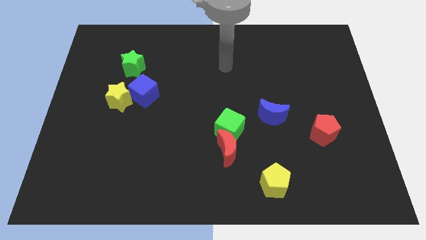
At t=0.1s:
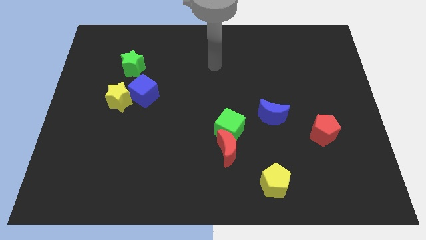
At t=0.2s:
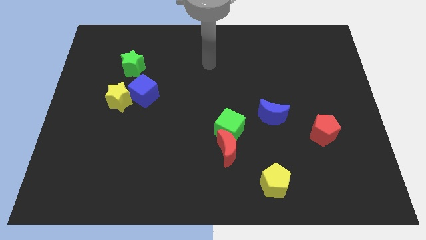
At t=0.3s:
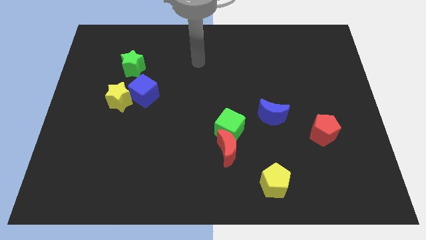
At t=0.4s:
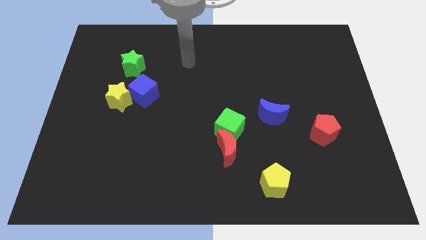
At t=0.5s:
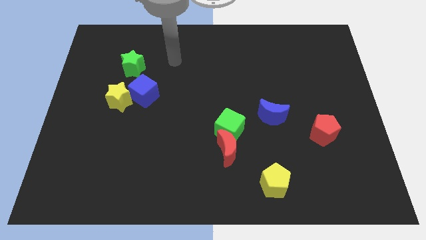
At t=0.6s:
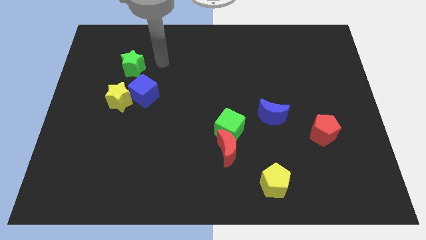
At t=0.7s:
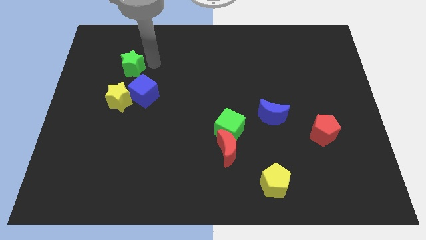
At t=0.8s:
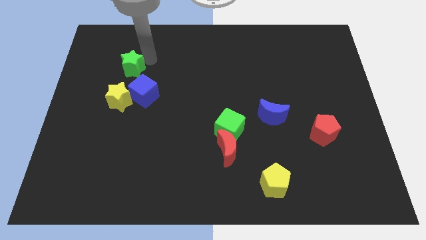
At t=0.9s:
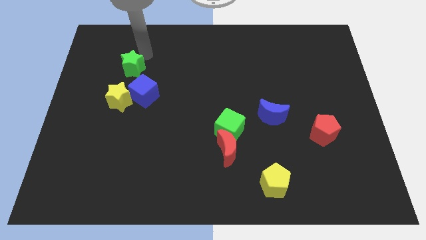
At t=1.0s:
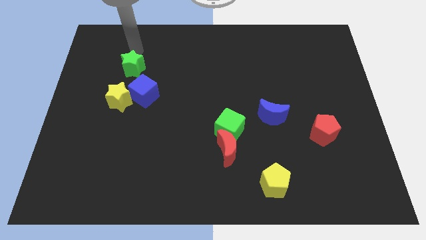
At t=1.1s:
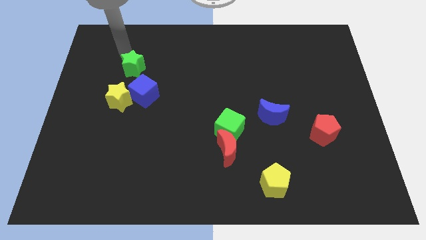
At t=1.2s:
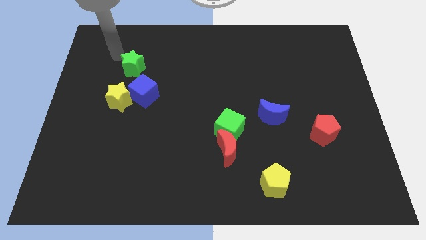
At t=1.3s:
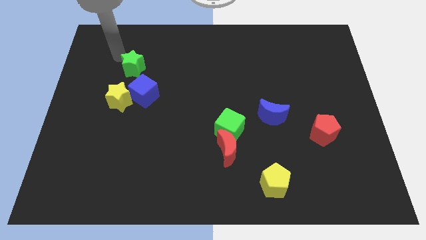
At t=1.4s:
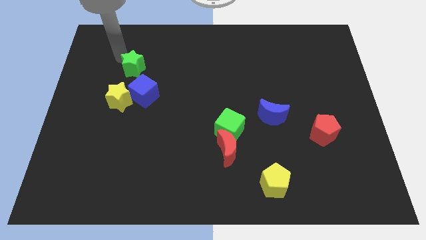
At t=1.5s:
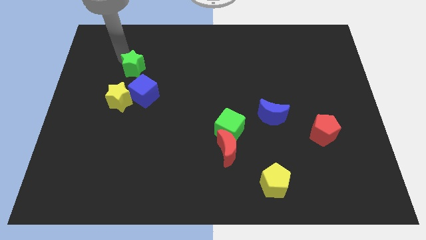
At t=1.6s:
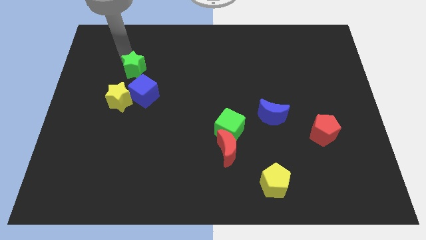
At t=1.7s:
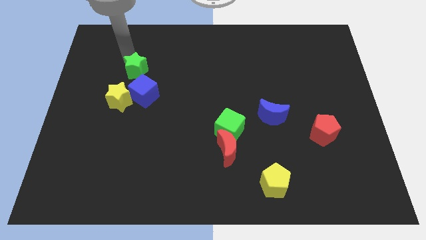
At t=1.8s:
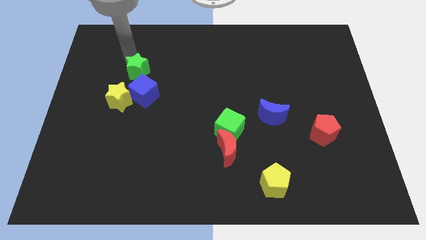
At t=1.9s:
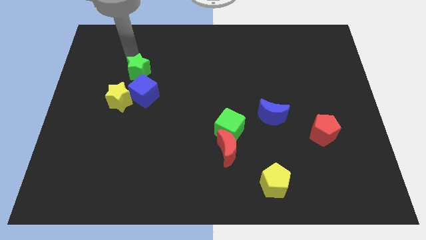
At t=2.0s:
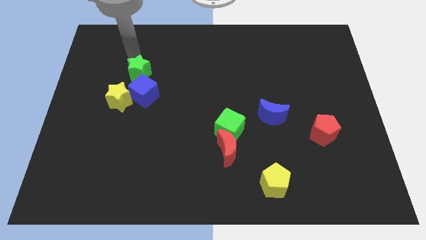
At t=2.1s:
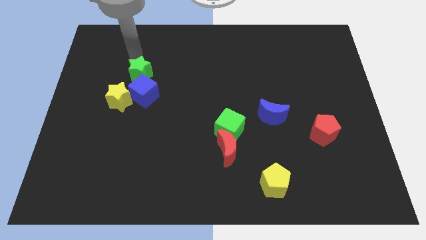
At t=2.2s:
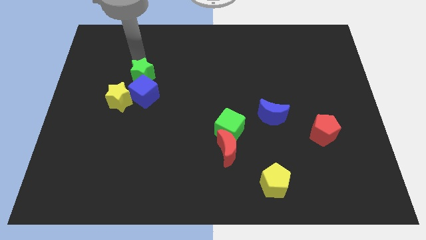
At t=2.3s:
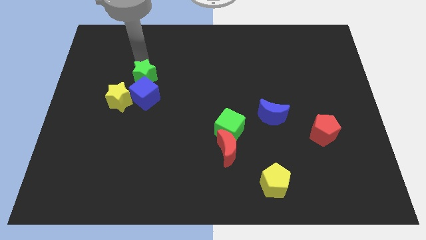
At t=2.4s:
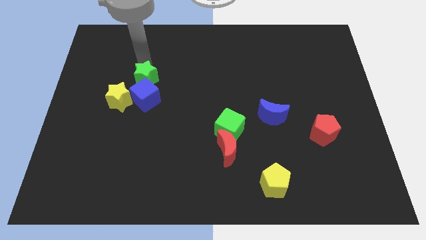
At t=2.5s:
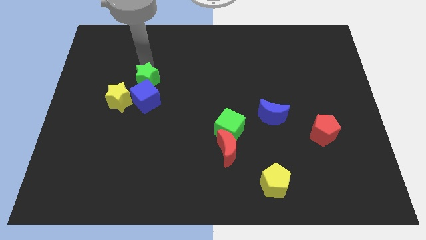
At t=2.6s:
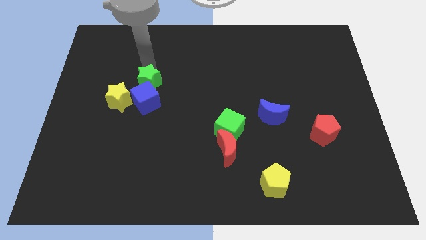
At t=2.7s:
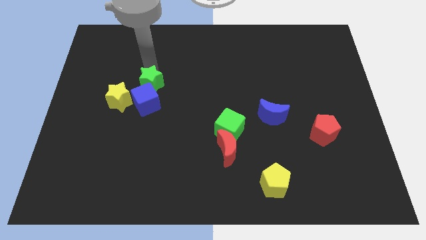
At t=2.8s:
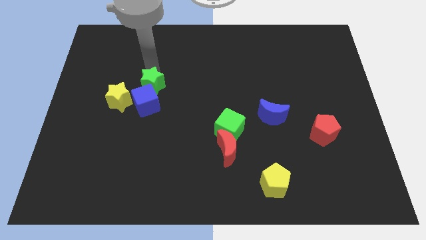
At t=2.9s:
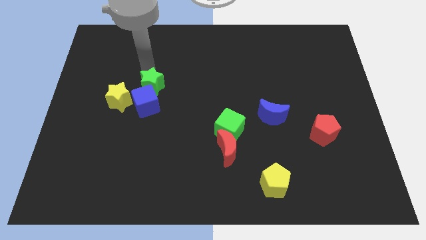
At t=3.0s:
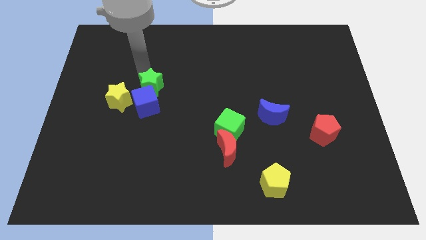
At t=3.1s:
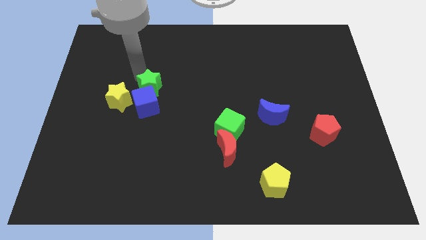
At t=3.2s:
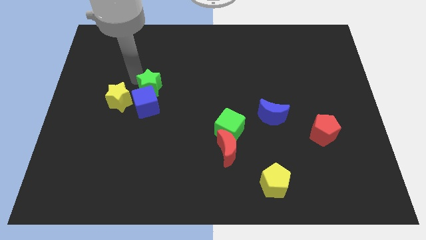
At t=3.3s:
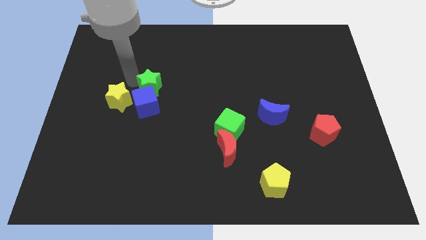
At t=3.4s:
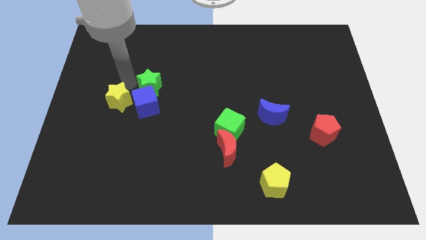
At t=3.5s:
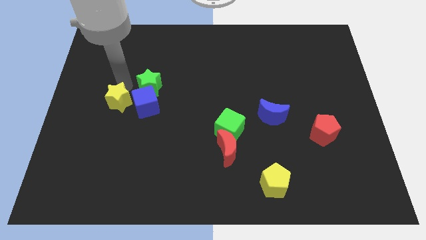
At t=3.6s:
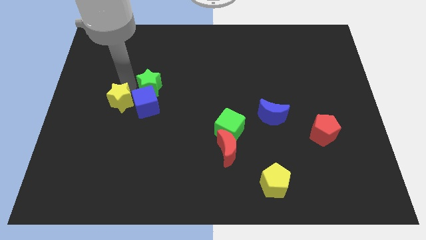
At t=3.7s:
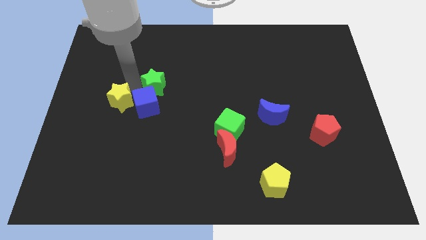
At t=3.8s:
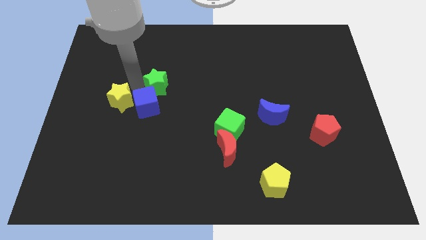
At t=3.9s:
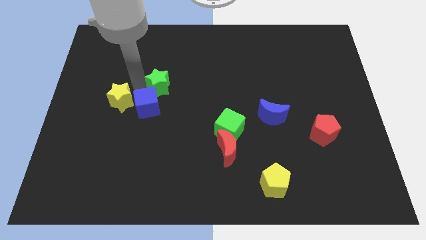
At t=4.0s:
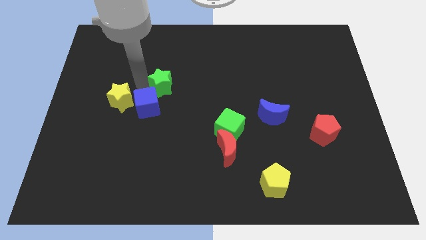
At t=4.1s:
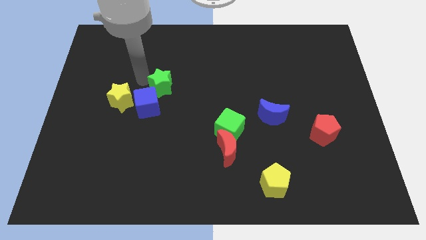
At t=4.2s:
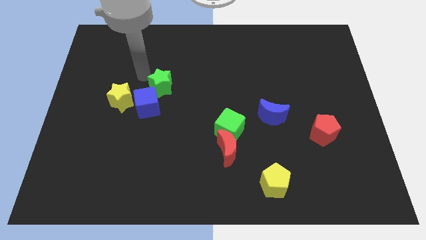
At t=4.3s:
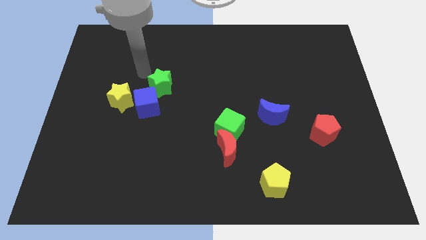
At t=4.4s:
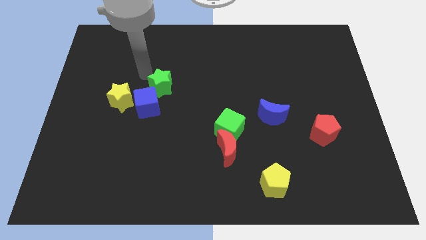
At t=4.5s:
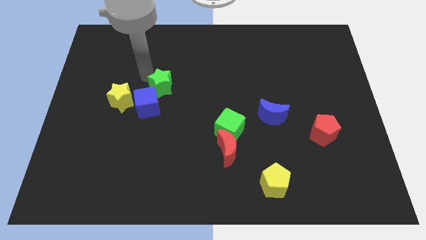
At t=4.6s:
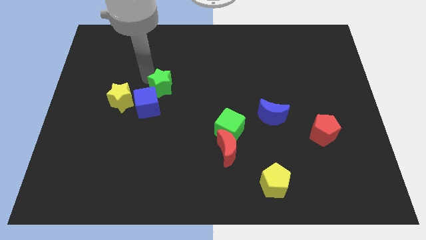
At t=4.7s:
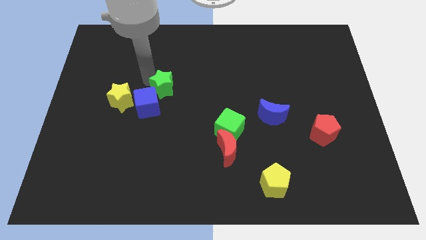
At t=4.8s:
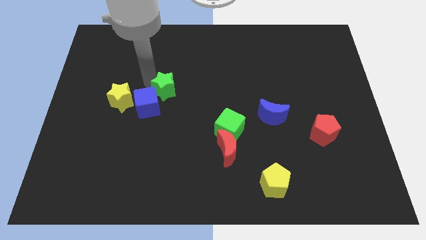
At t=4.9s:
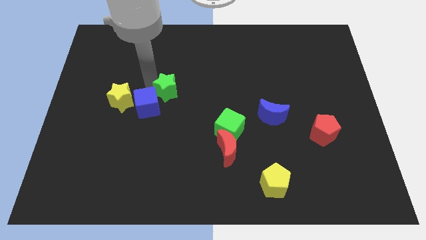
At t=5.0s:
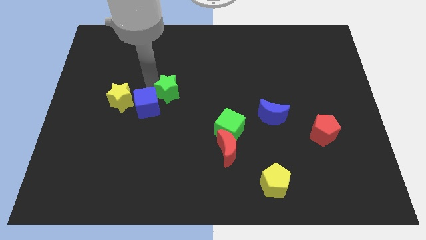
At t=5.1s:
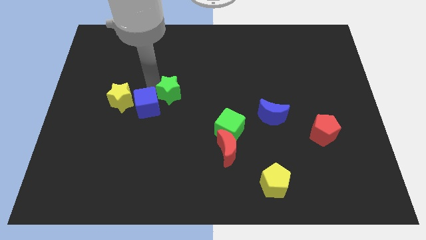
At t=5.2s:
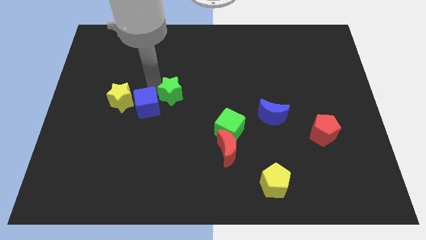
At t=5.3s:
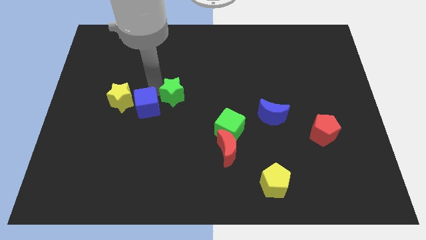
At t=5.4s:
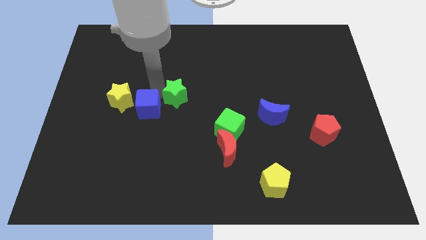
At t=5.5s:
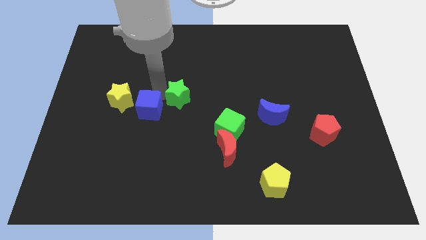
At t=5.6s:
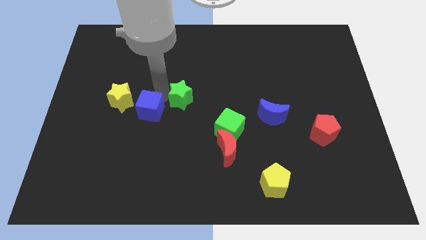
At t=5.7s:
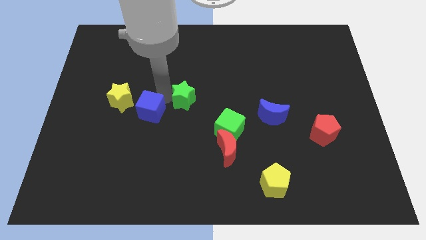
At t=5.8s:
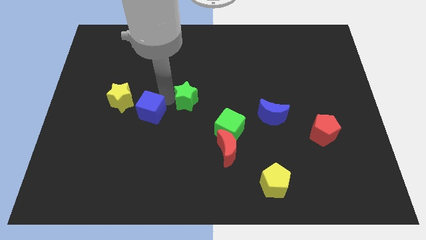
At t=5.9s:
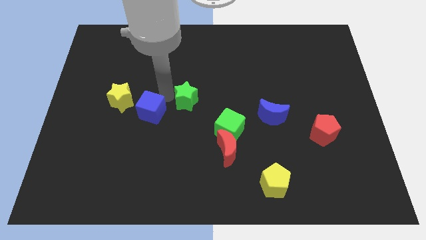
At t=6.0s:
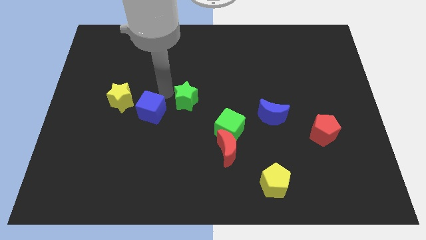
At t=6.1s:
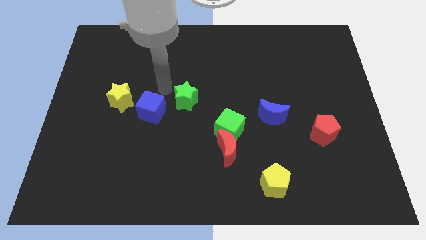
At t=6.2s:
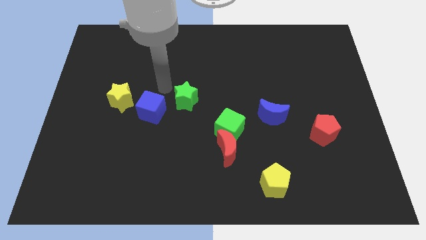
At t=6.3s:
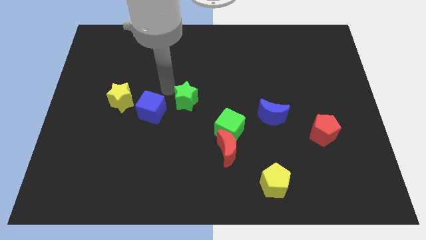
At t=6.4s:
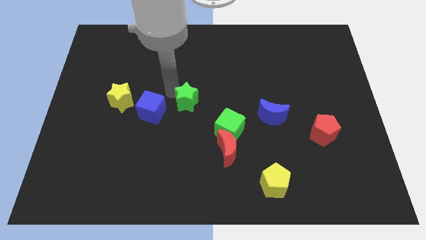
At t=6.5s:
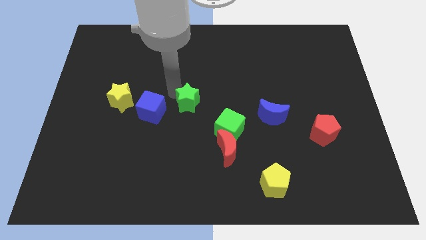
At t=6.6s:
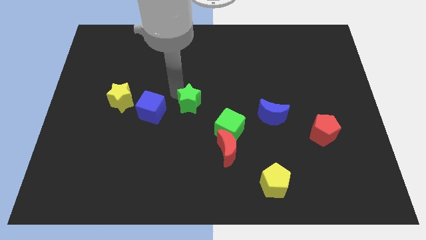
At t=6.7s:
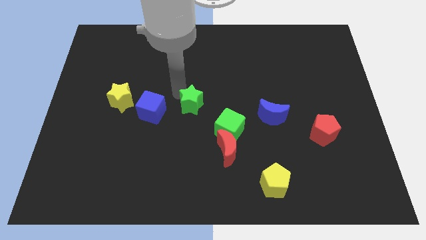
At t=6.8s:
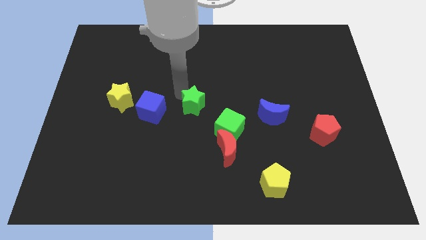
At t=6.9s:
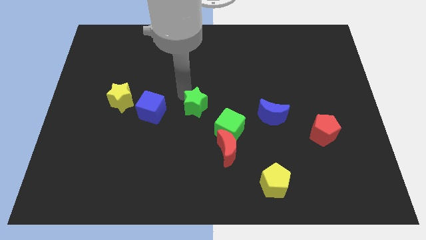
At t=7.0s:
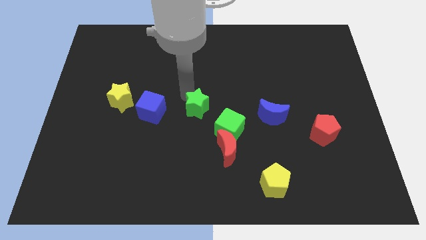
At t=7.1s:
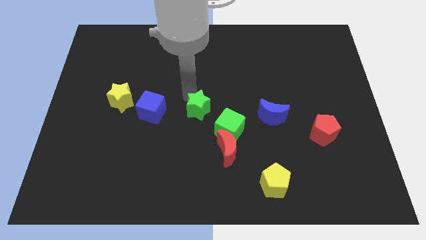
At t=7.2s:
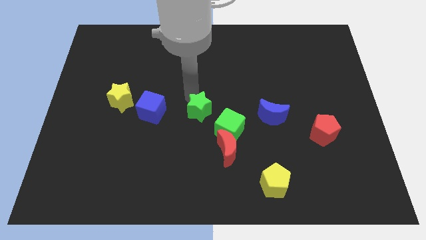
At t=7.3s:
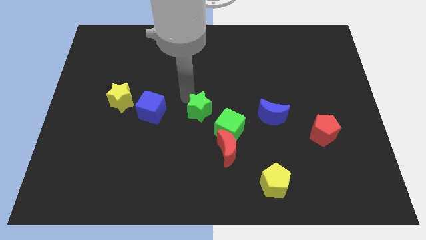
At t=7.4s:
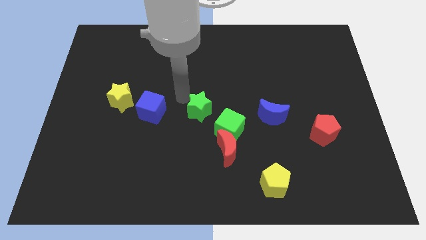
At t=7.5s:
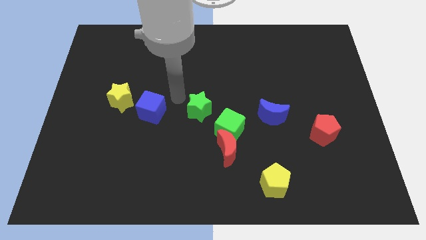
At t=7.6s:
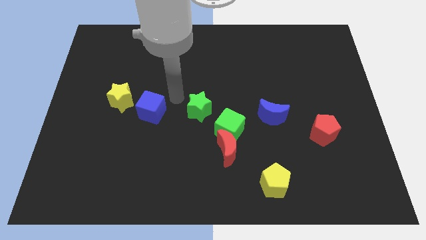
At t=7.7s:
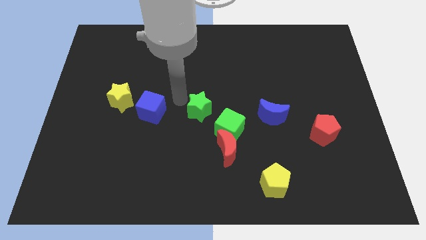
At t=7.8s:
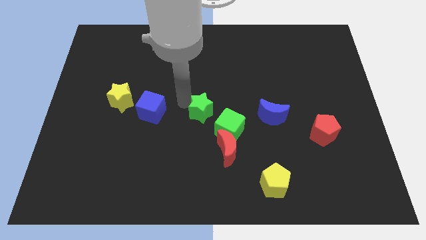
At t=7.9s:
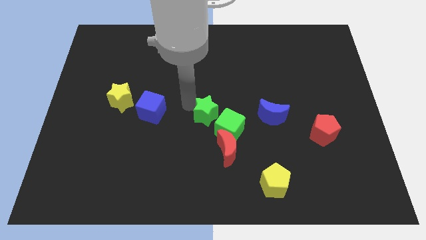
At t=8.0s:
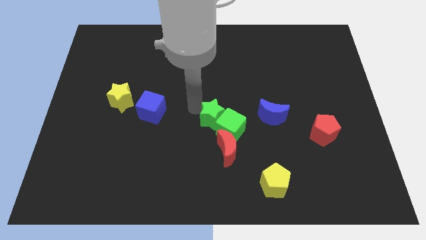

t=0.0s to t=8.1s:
slide the green star next to the green cube
